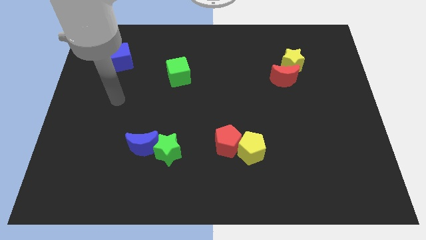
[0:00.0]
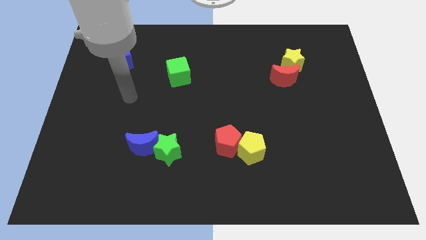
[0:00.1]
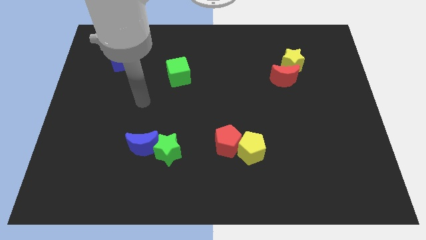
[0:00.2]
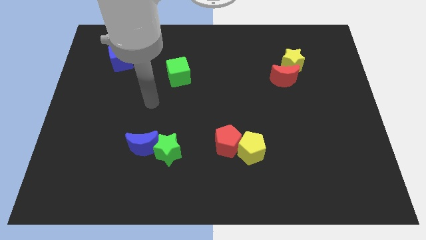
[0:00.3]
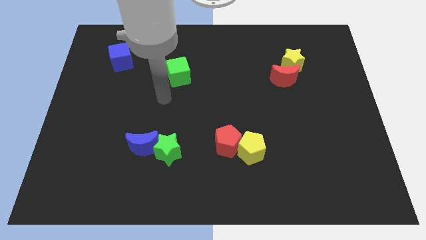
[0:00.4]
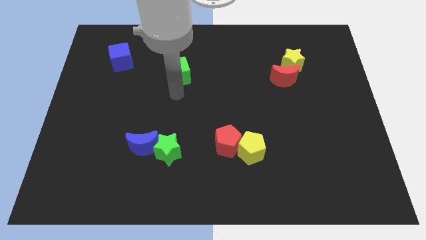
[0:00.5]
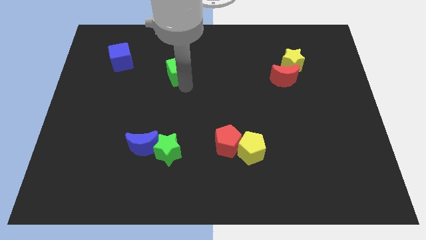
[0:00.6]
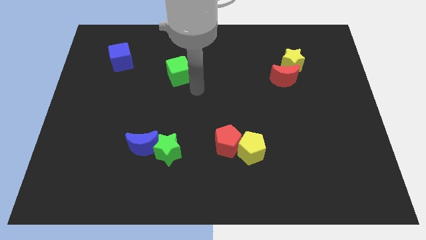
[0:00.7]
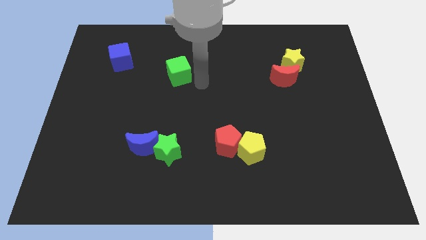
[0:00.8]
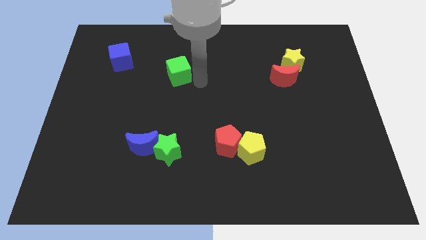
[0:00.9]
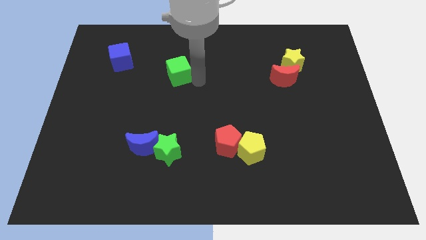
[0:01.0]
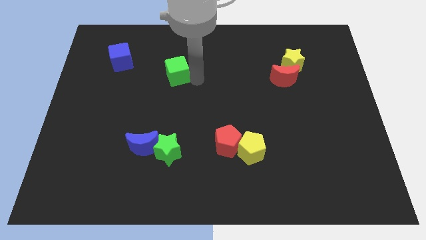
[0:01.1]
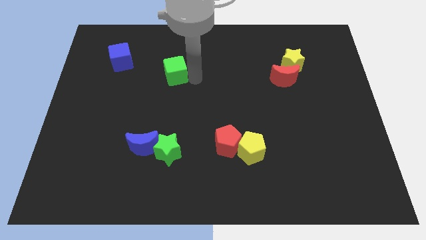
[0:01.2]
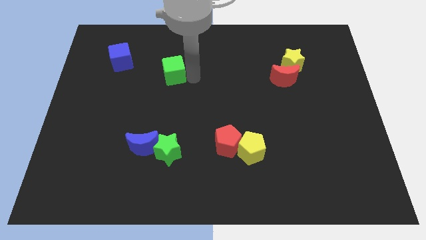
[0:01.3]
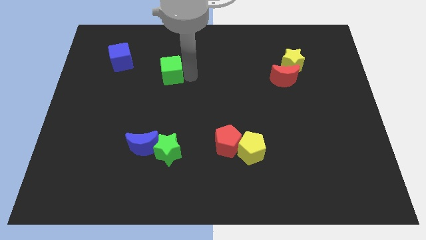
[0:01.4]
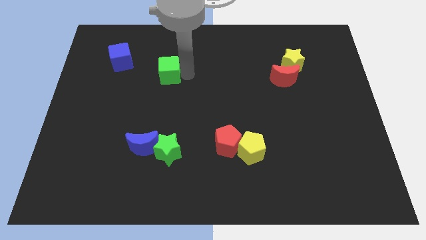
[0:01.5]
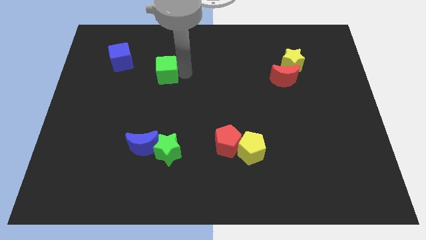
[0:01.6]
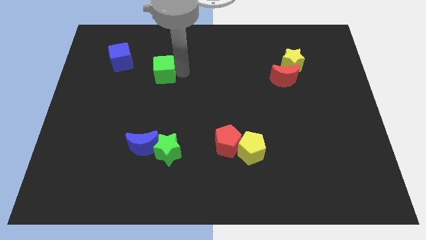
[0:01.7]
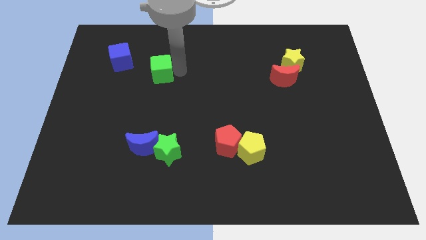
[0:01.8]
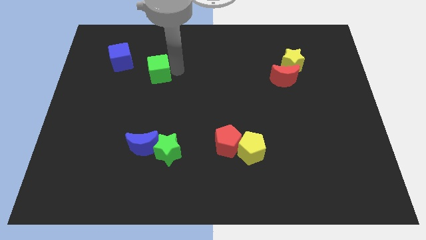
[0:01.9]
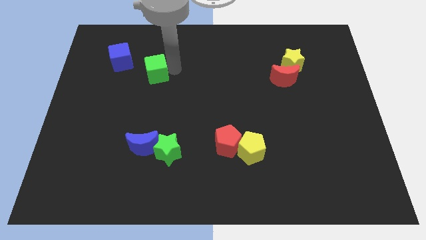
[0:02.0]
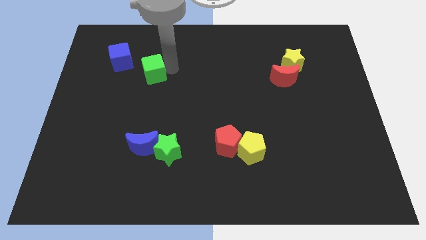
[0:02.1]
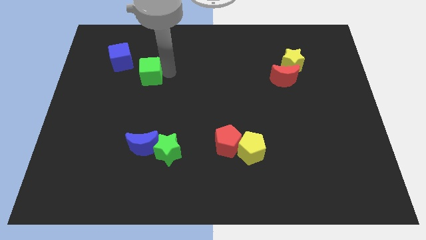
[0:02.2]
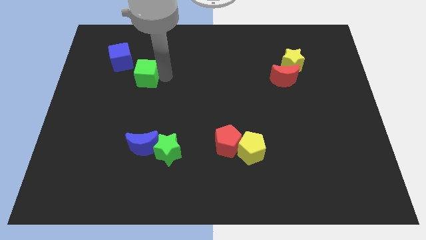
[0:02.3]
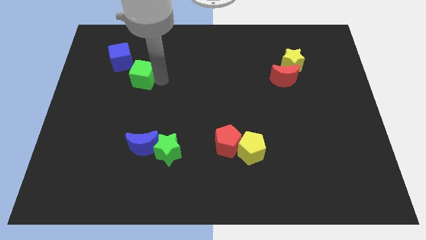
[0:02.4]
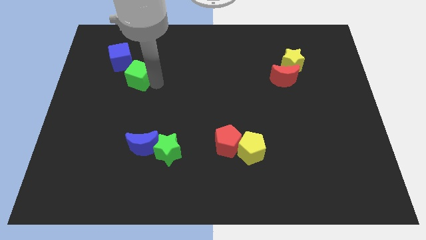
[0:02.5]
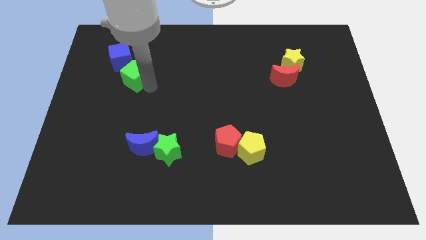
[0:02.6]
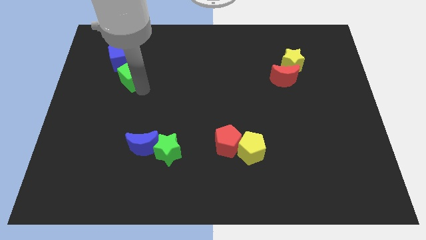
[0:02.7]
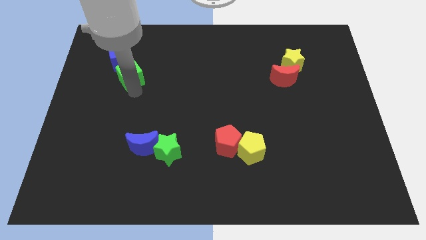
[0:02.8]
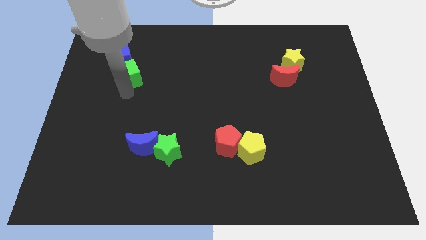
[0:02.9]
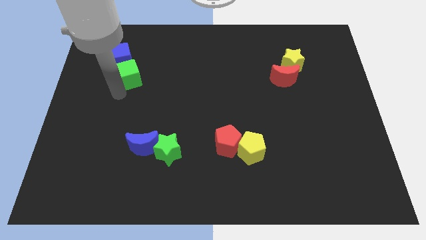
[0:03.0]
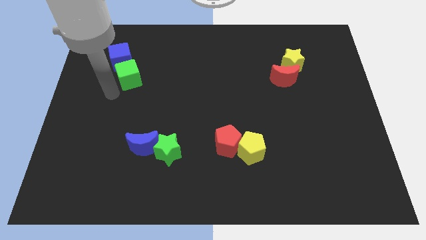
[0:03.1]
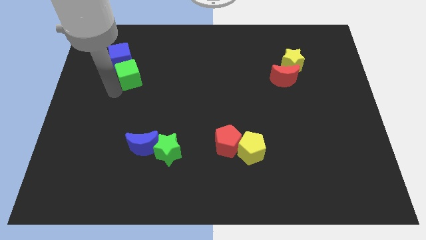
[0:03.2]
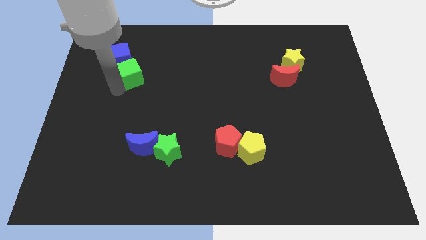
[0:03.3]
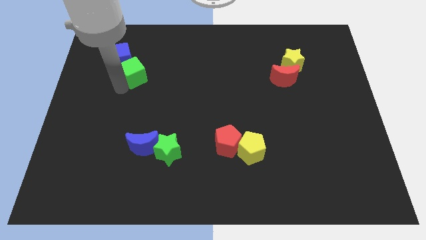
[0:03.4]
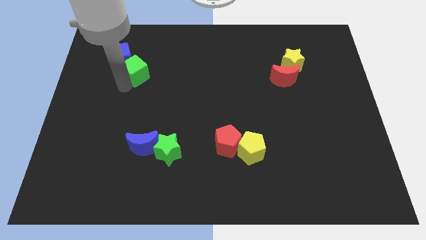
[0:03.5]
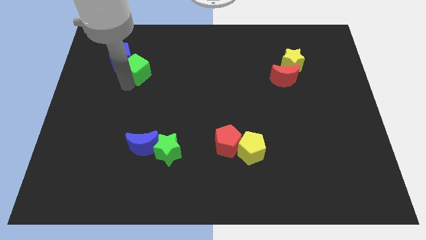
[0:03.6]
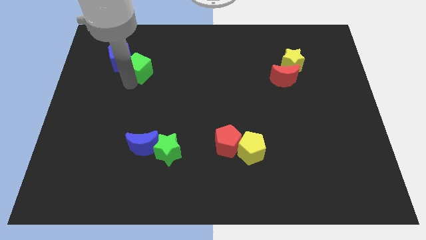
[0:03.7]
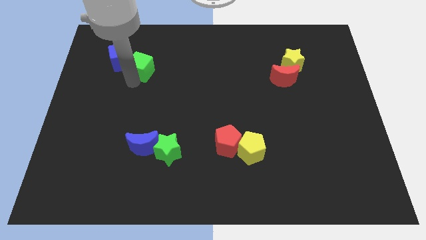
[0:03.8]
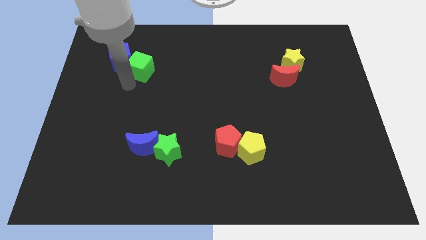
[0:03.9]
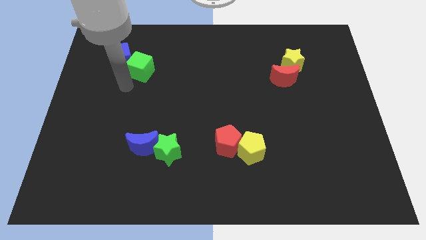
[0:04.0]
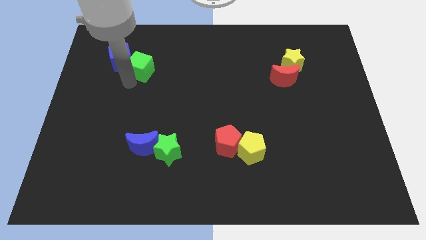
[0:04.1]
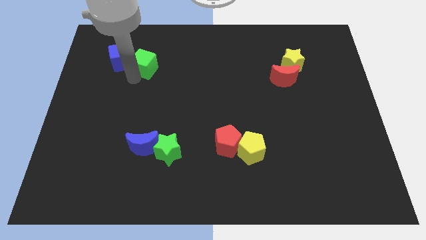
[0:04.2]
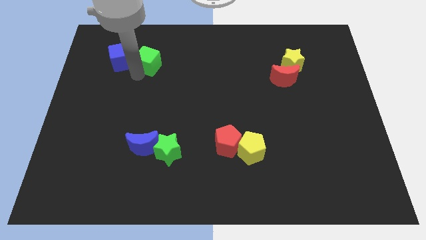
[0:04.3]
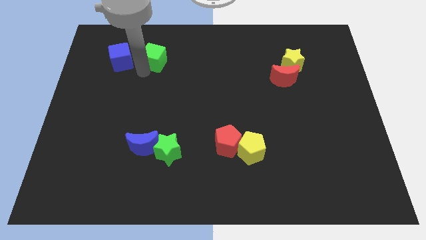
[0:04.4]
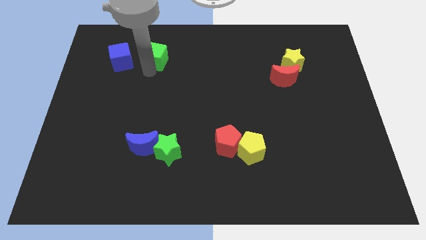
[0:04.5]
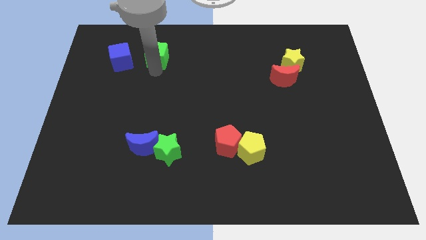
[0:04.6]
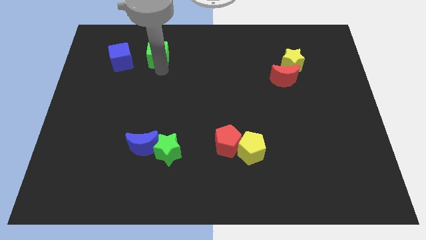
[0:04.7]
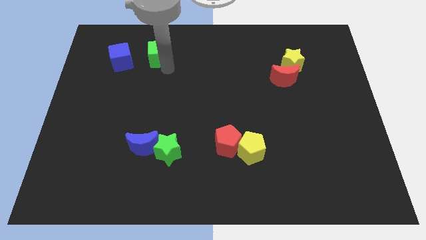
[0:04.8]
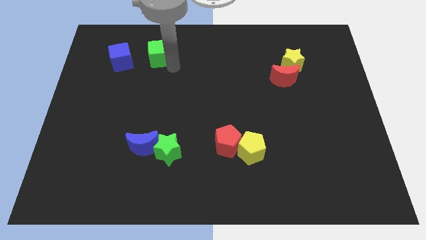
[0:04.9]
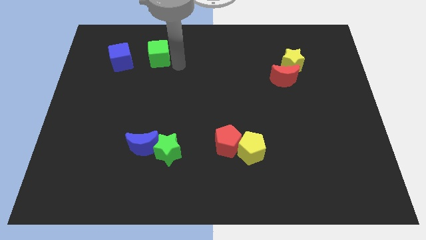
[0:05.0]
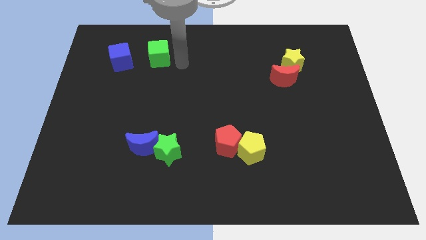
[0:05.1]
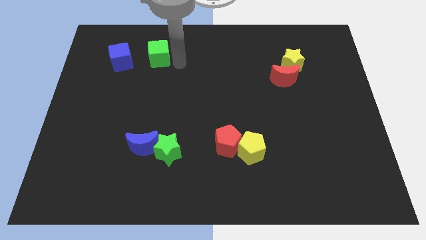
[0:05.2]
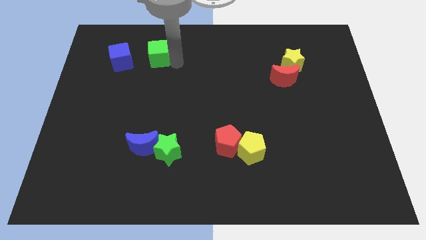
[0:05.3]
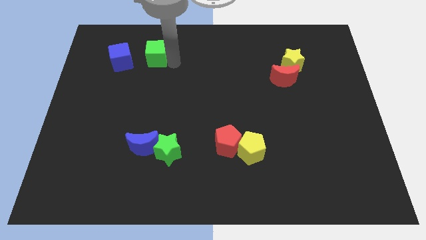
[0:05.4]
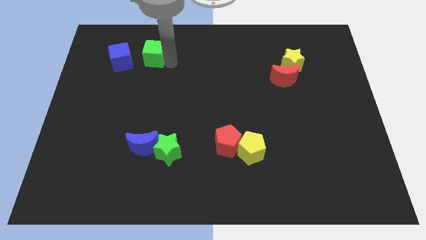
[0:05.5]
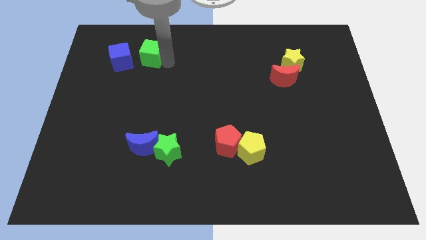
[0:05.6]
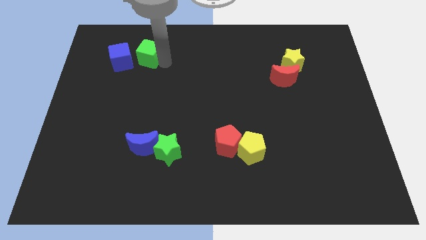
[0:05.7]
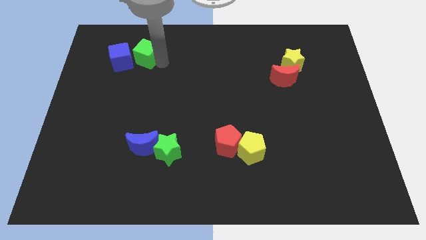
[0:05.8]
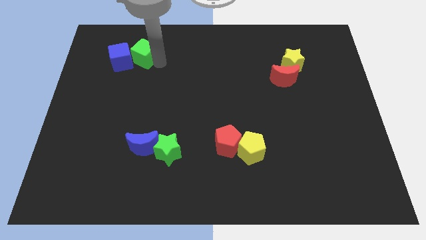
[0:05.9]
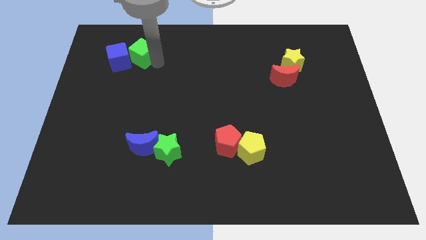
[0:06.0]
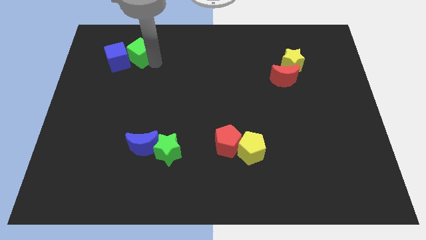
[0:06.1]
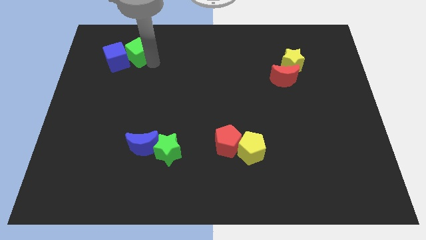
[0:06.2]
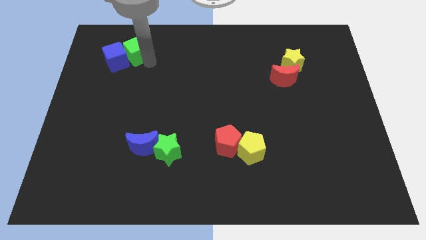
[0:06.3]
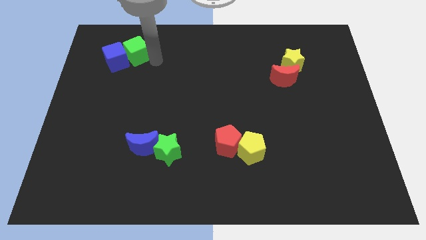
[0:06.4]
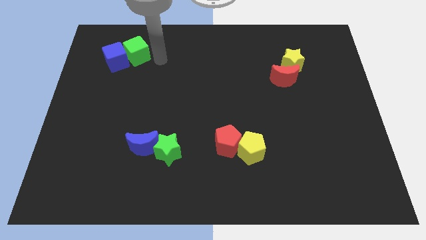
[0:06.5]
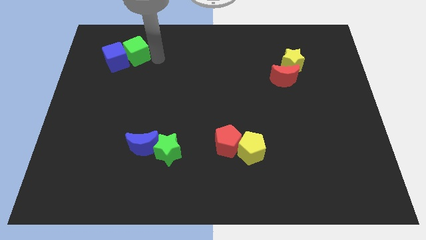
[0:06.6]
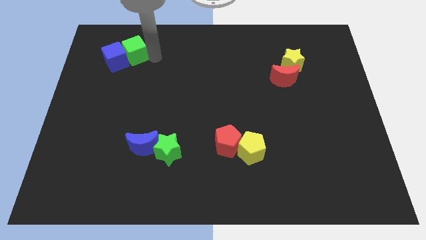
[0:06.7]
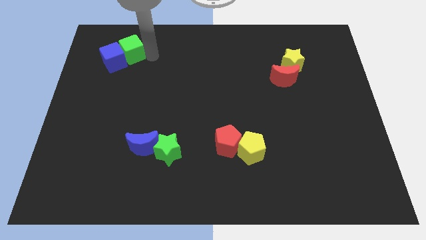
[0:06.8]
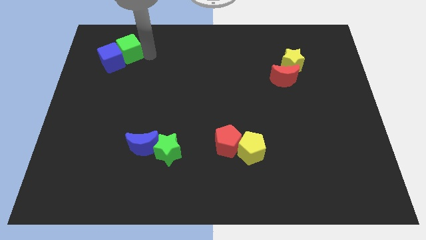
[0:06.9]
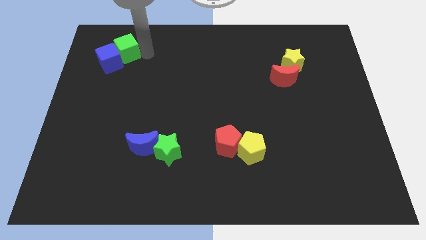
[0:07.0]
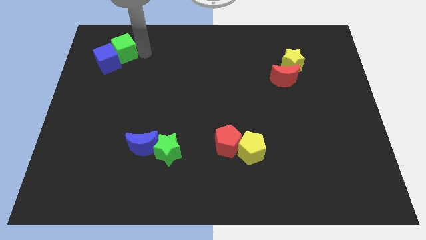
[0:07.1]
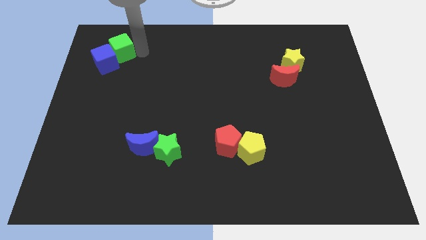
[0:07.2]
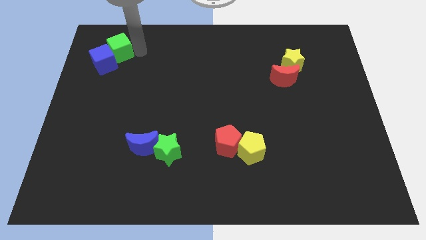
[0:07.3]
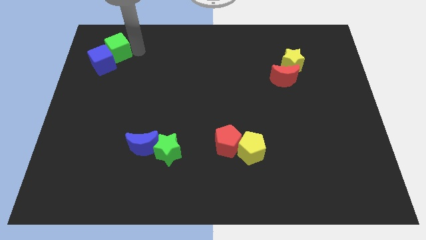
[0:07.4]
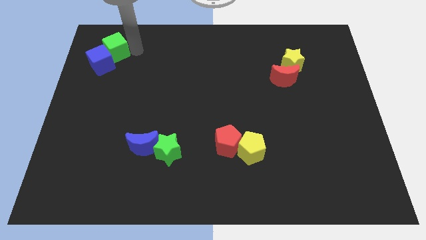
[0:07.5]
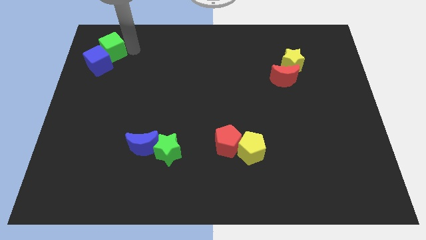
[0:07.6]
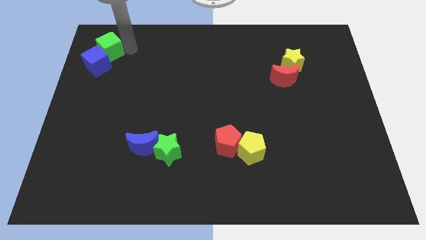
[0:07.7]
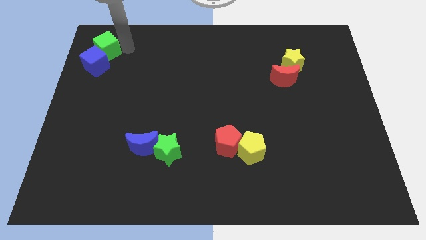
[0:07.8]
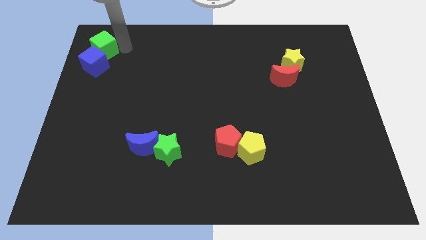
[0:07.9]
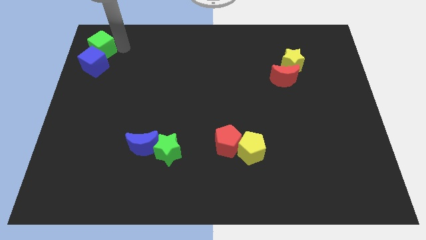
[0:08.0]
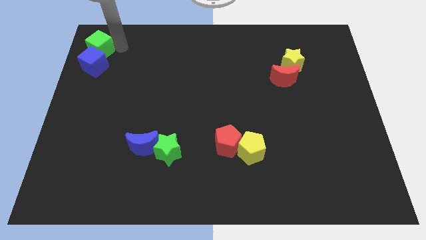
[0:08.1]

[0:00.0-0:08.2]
push the green cube to the top left of the board
